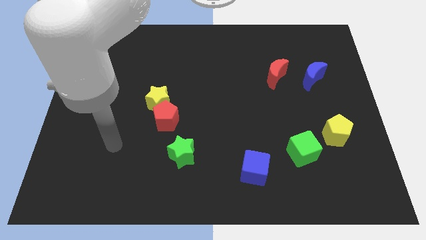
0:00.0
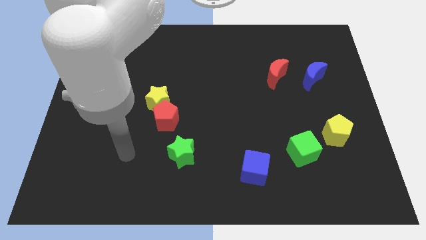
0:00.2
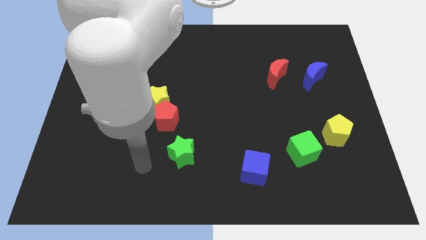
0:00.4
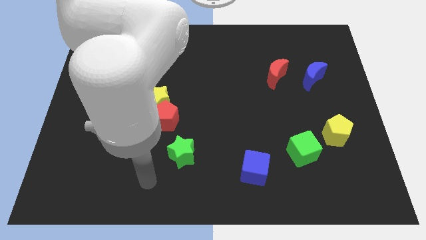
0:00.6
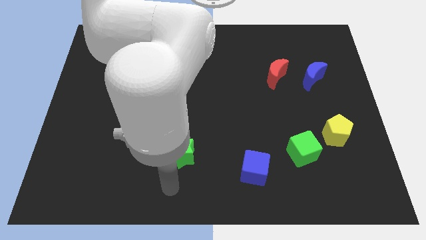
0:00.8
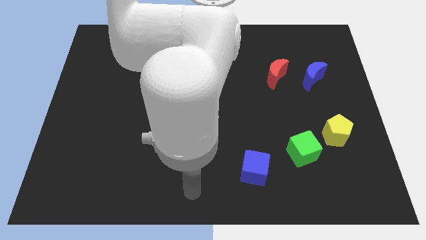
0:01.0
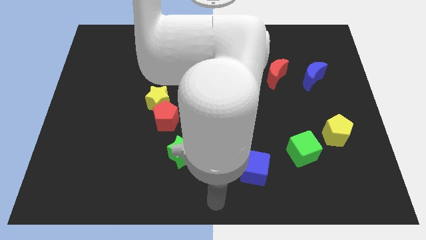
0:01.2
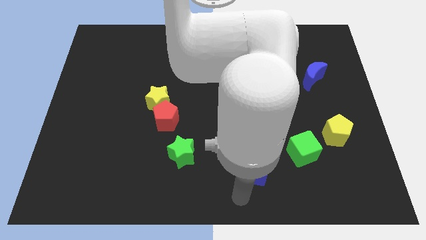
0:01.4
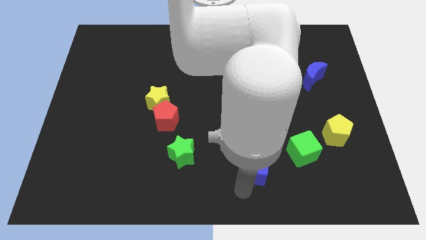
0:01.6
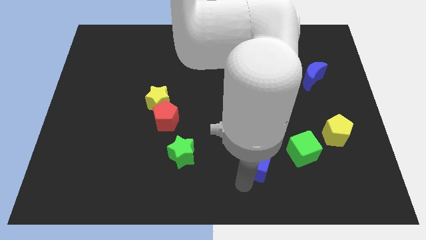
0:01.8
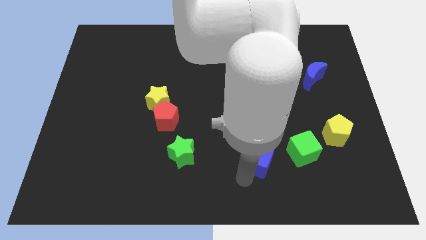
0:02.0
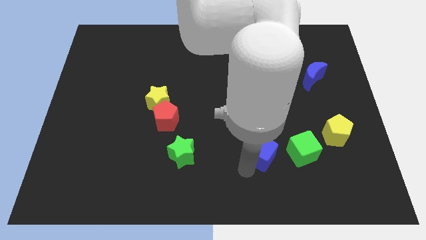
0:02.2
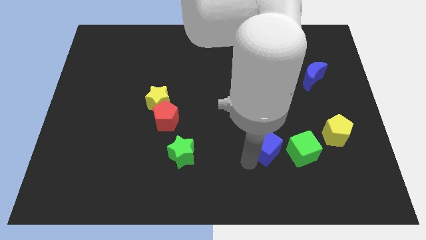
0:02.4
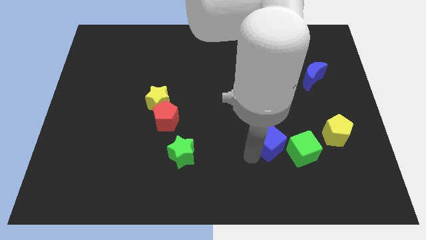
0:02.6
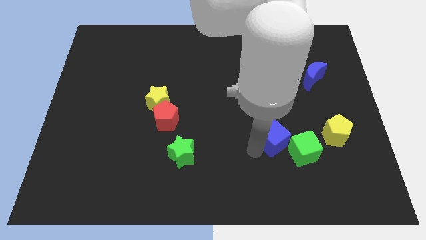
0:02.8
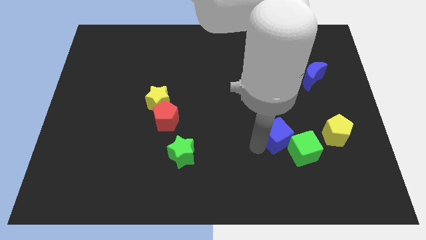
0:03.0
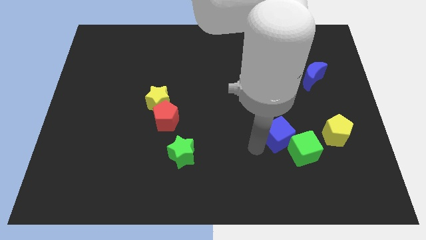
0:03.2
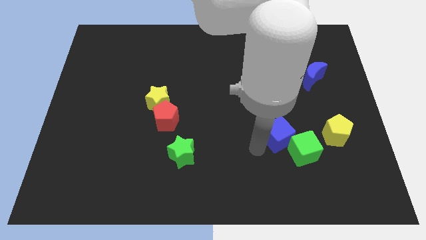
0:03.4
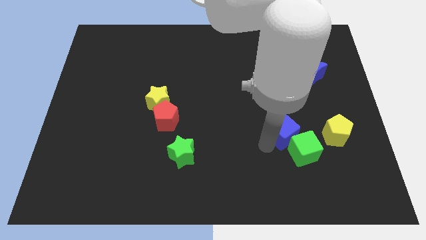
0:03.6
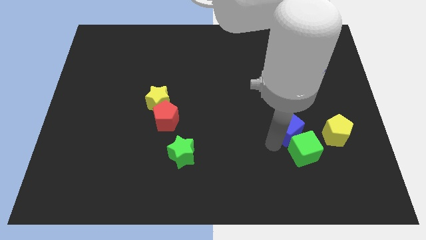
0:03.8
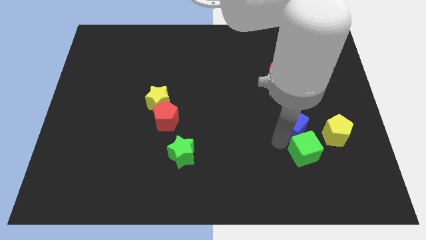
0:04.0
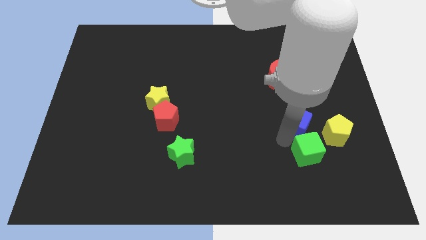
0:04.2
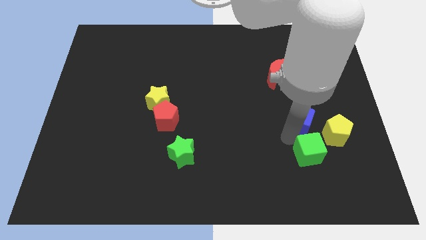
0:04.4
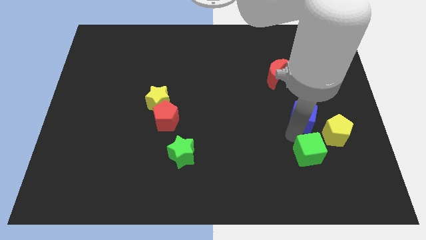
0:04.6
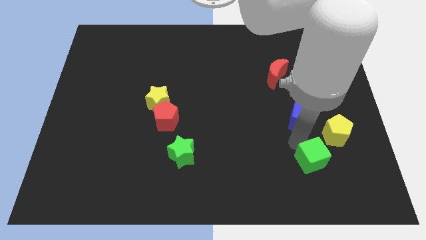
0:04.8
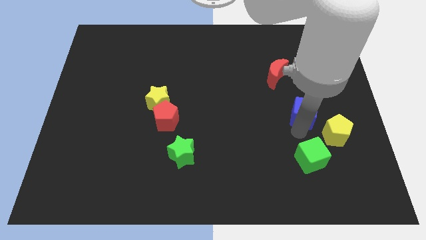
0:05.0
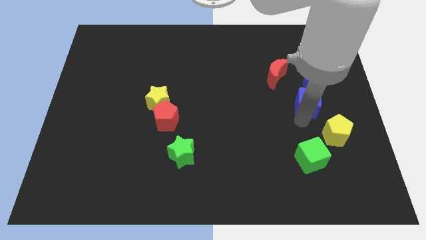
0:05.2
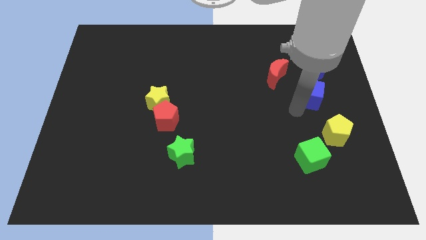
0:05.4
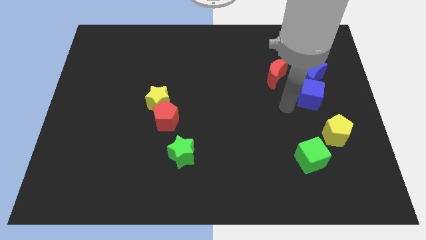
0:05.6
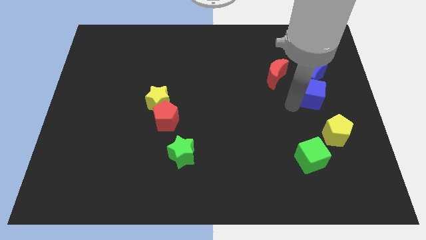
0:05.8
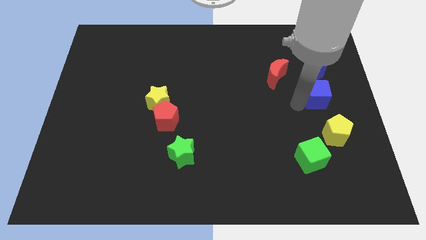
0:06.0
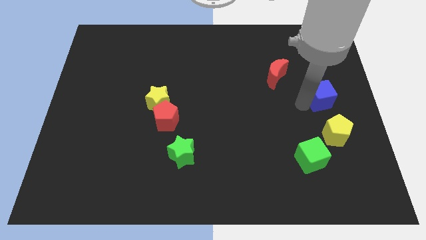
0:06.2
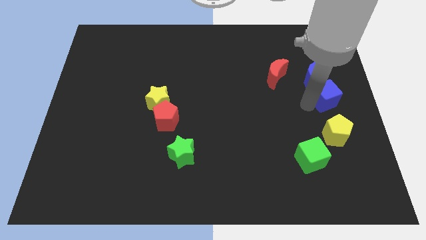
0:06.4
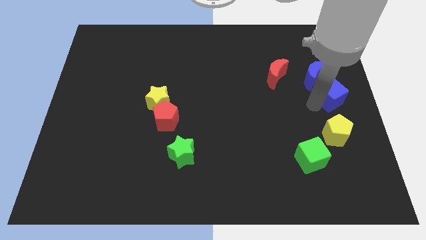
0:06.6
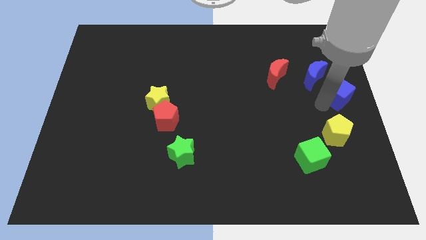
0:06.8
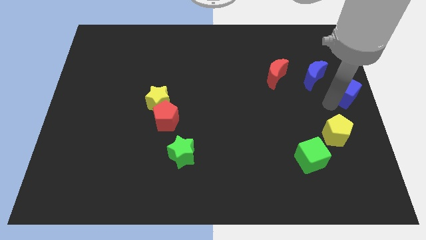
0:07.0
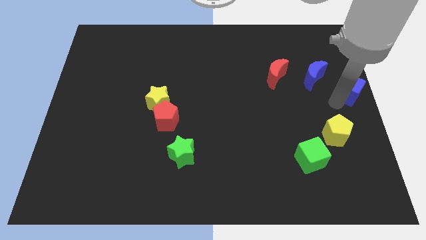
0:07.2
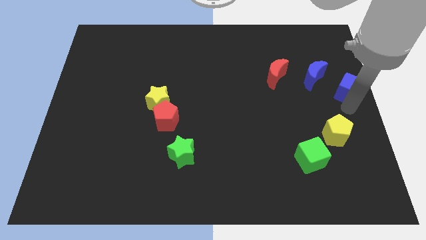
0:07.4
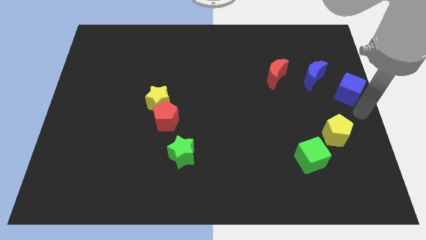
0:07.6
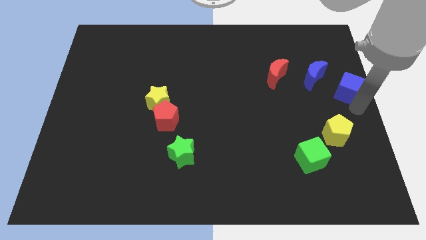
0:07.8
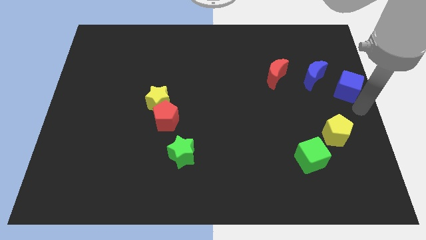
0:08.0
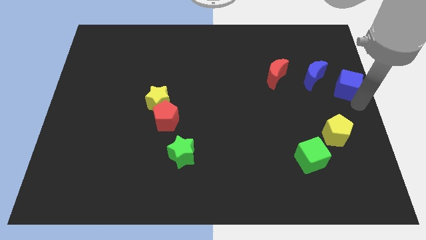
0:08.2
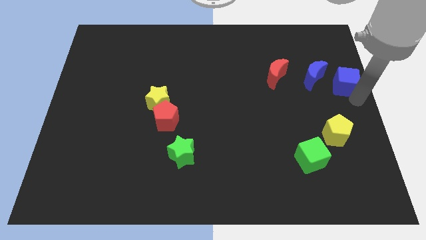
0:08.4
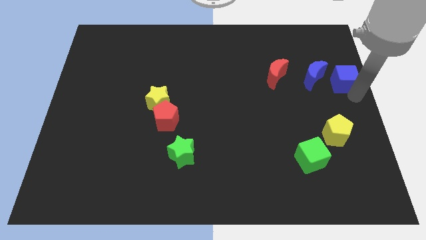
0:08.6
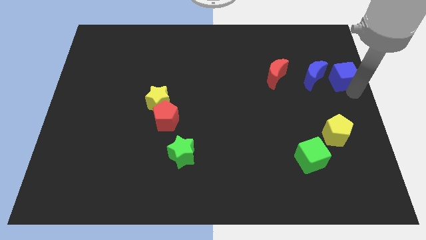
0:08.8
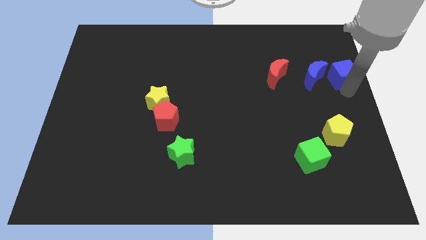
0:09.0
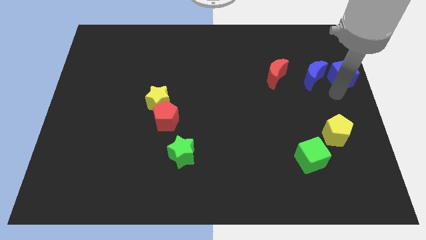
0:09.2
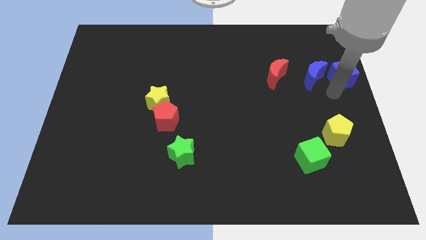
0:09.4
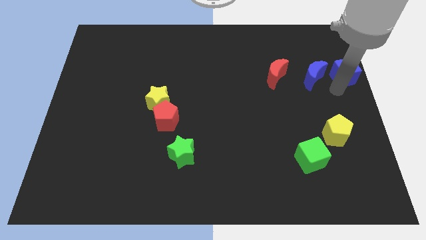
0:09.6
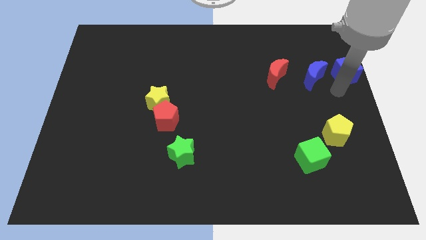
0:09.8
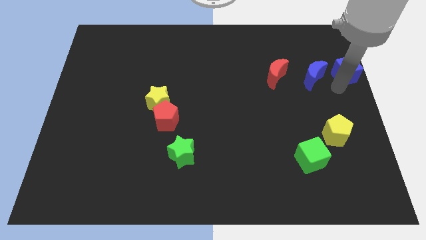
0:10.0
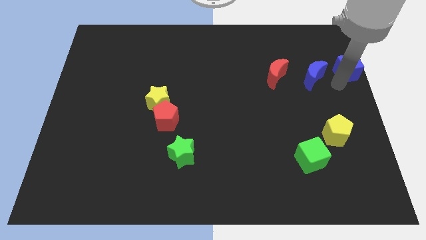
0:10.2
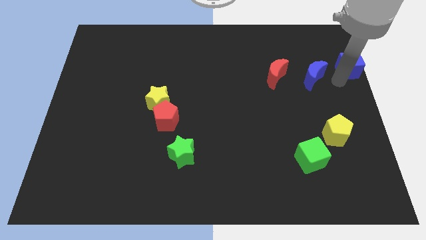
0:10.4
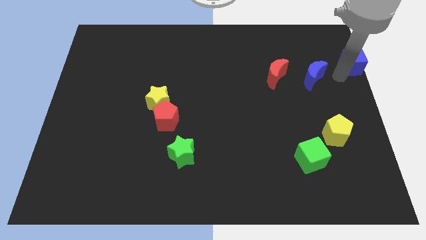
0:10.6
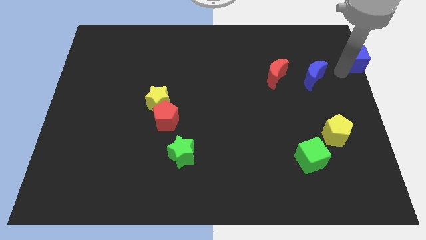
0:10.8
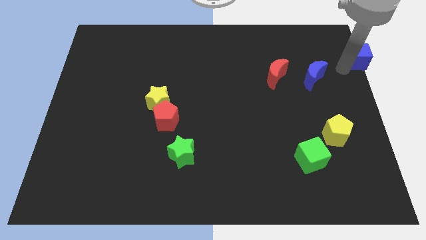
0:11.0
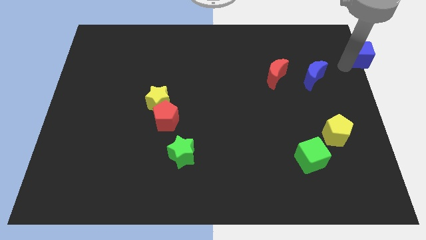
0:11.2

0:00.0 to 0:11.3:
slide the blue cube to the top right of the board
